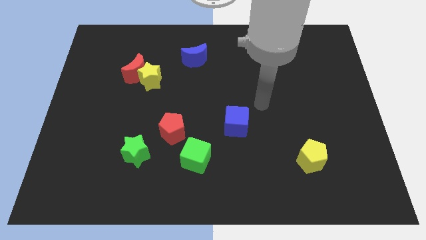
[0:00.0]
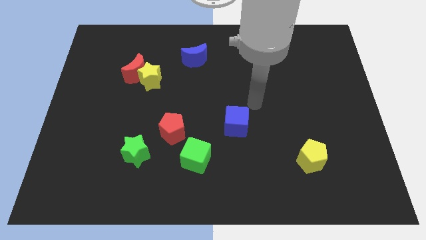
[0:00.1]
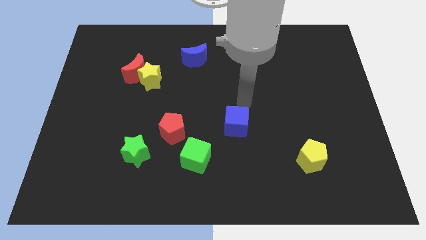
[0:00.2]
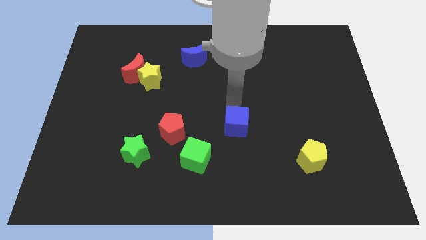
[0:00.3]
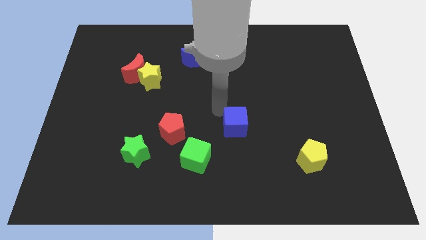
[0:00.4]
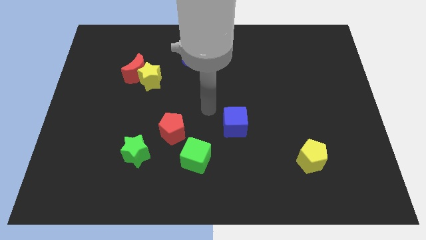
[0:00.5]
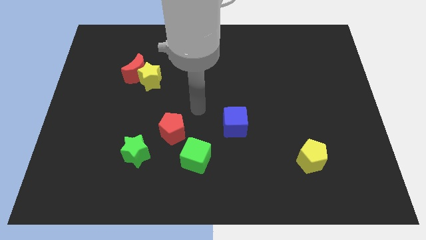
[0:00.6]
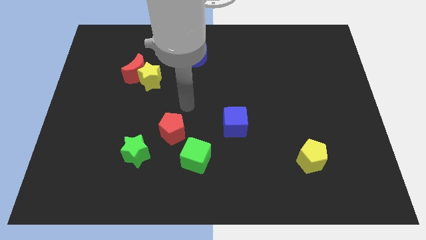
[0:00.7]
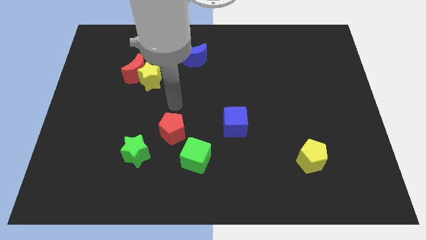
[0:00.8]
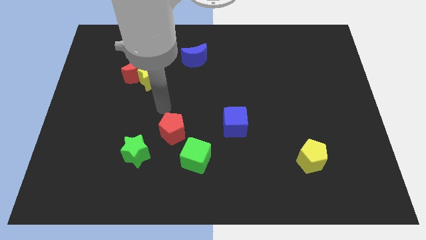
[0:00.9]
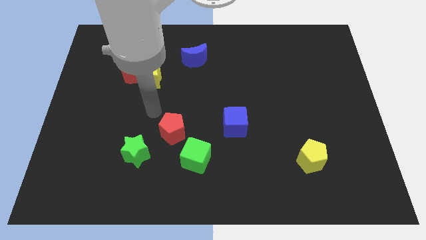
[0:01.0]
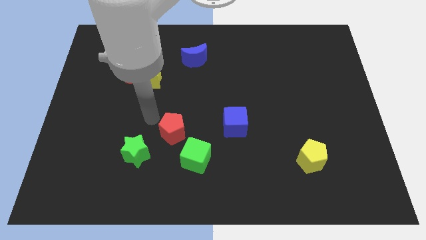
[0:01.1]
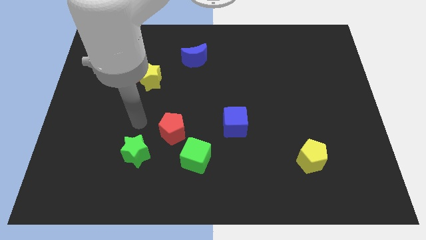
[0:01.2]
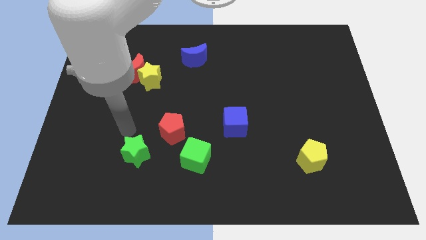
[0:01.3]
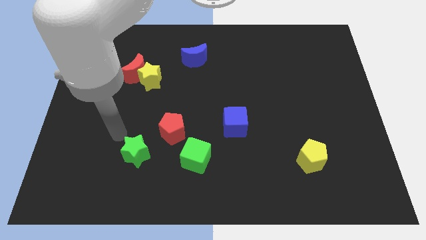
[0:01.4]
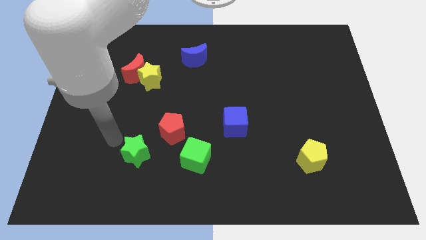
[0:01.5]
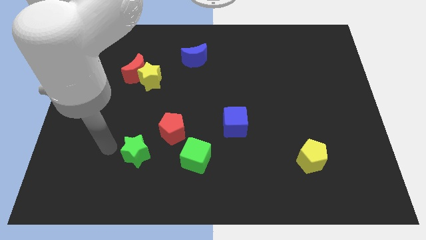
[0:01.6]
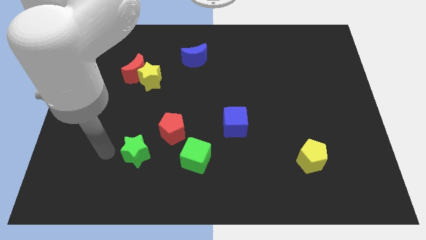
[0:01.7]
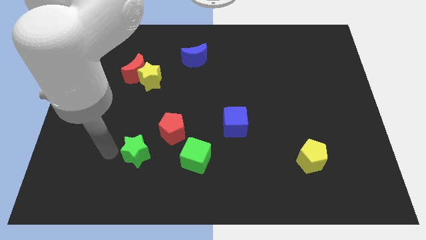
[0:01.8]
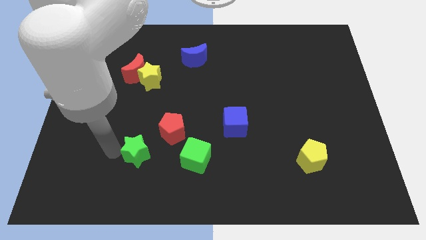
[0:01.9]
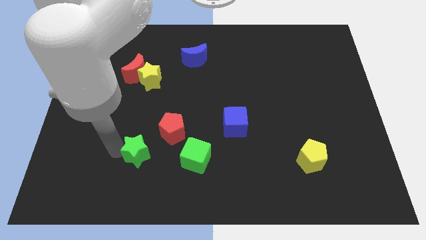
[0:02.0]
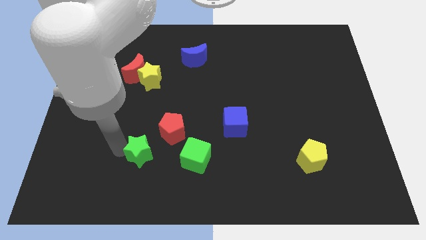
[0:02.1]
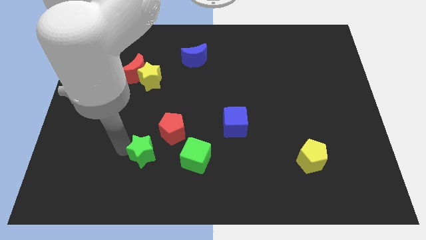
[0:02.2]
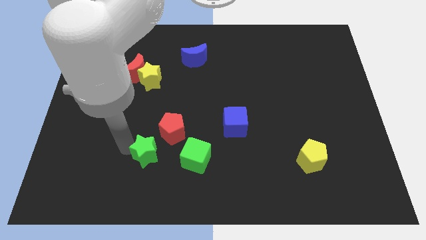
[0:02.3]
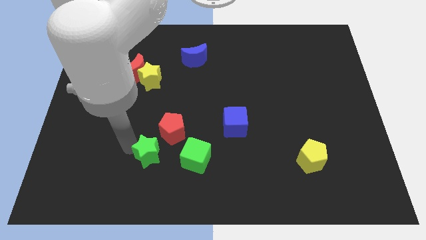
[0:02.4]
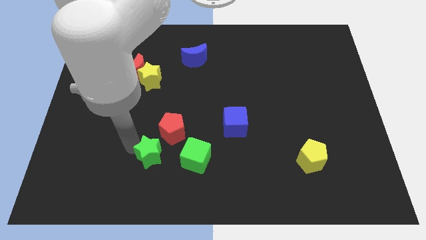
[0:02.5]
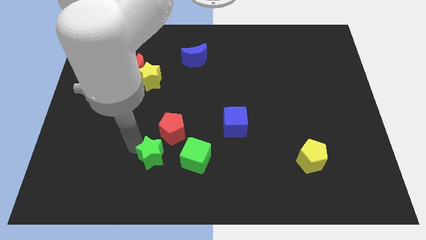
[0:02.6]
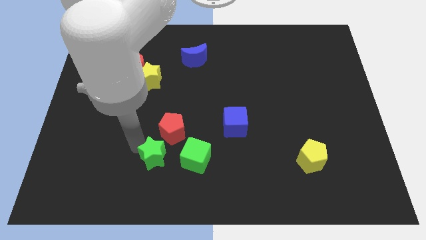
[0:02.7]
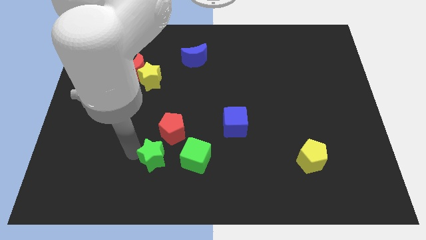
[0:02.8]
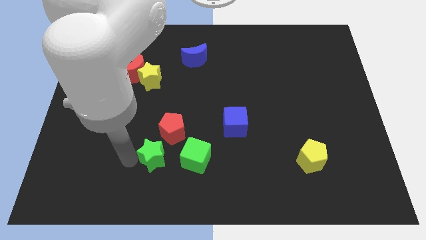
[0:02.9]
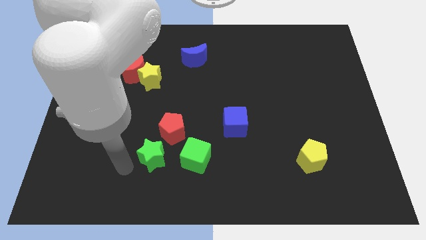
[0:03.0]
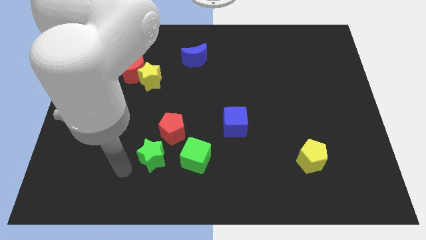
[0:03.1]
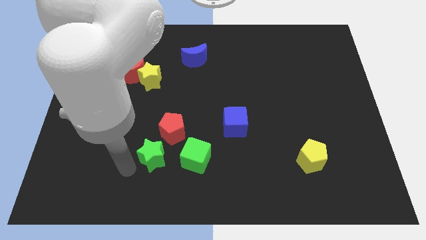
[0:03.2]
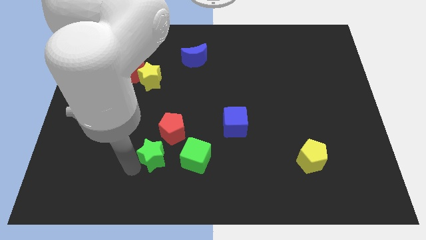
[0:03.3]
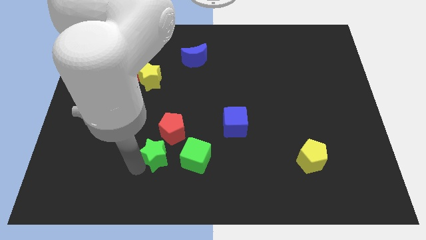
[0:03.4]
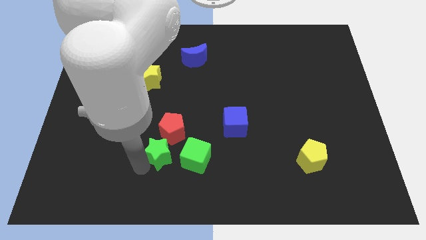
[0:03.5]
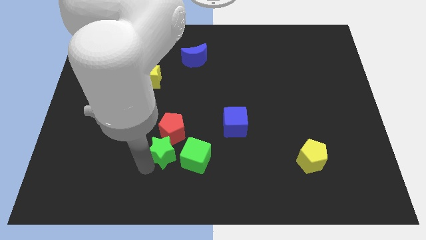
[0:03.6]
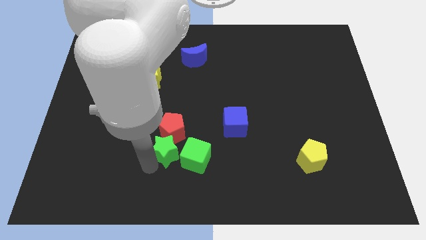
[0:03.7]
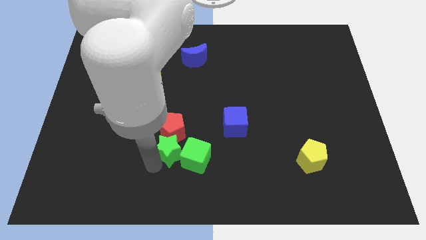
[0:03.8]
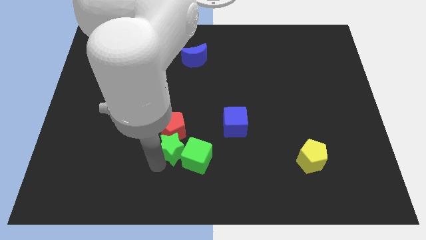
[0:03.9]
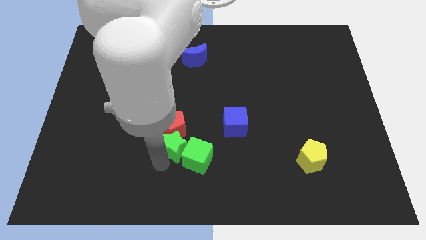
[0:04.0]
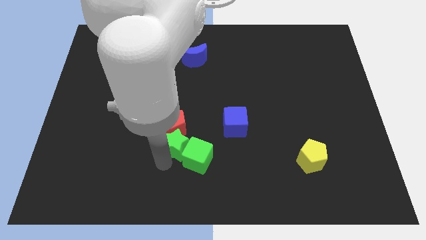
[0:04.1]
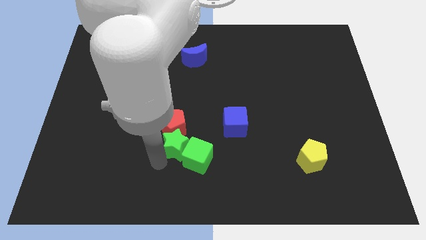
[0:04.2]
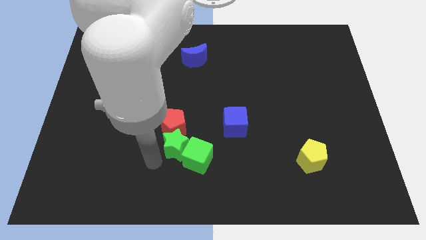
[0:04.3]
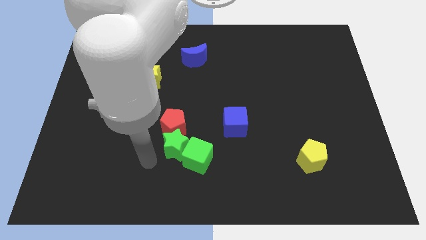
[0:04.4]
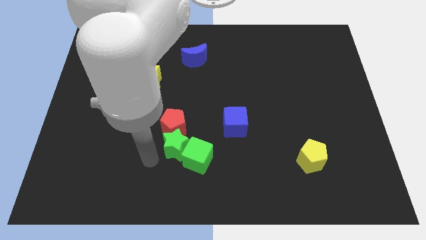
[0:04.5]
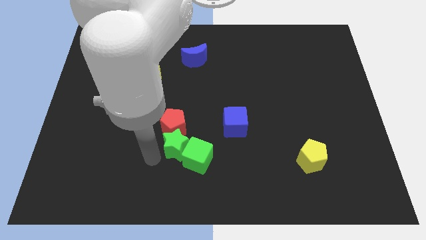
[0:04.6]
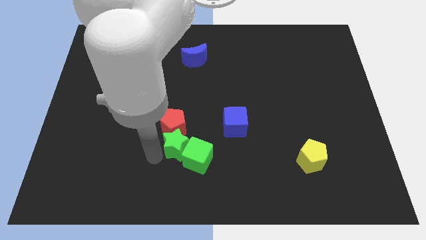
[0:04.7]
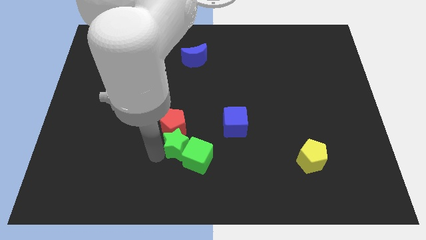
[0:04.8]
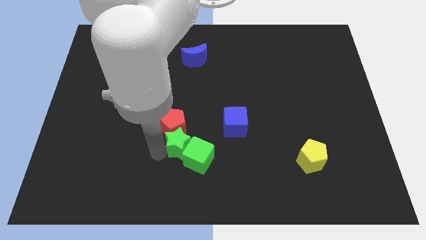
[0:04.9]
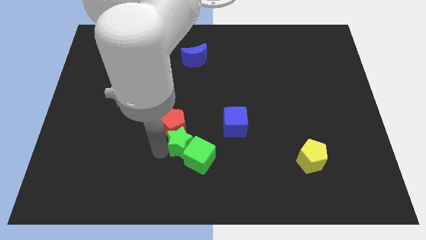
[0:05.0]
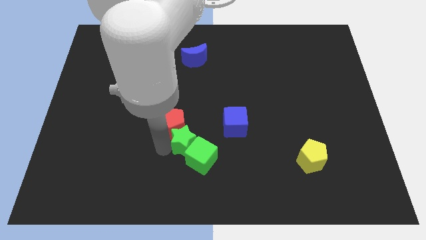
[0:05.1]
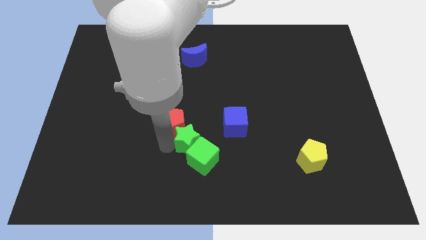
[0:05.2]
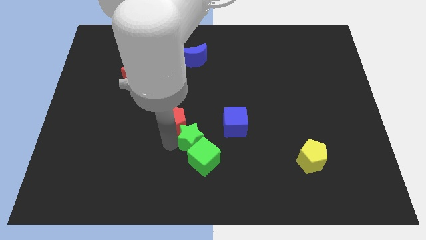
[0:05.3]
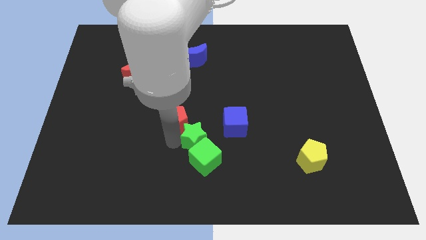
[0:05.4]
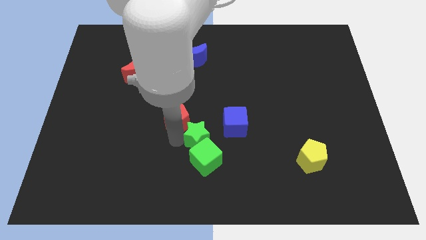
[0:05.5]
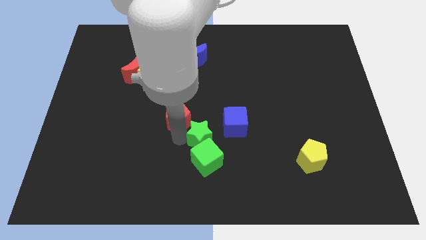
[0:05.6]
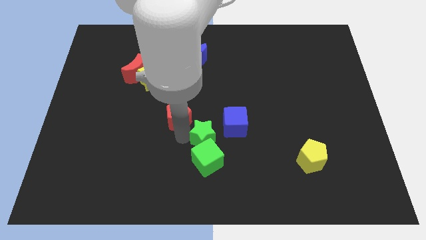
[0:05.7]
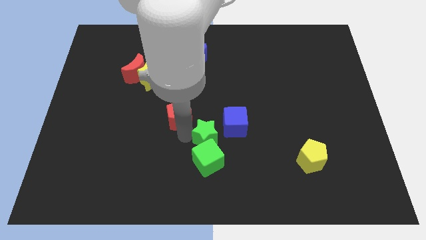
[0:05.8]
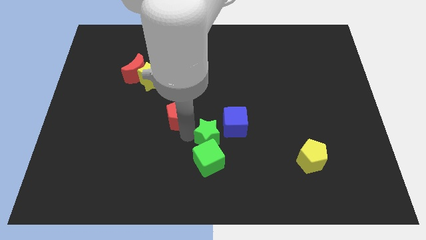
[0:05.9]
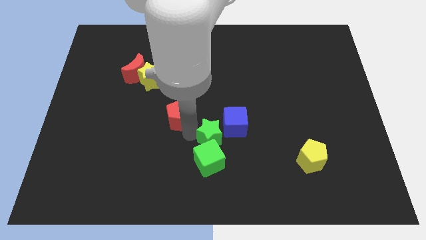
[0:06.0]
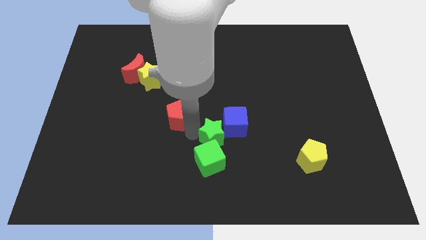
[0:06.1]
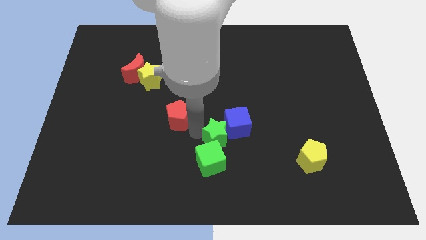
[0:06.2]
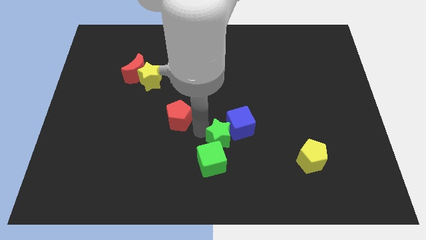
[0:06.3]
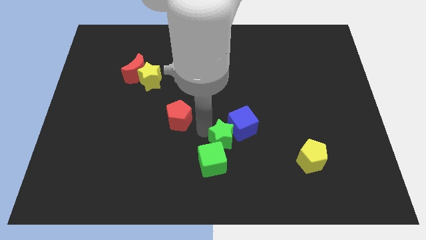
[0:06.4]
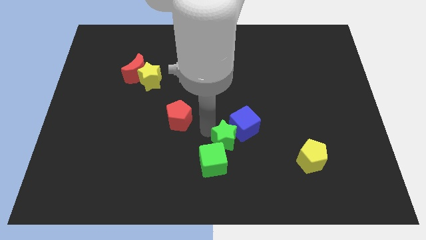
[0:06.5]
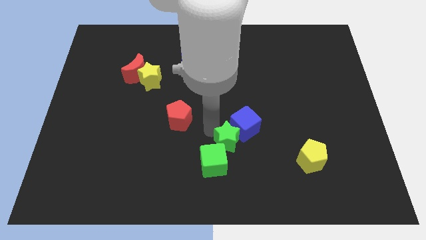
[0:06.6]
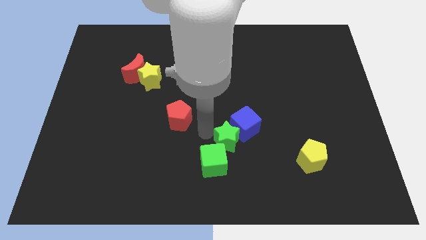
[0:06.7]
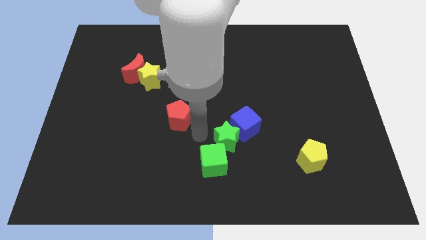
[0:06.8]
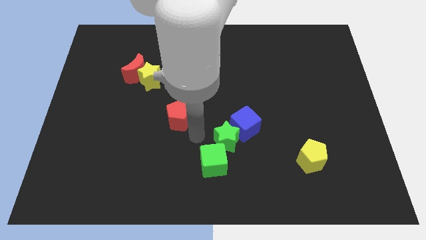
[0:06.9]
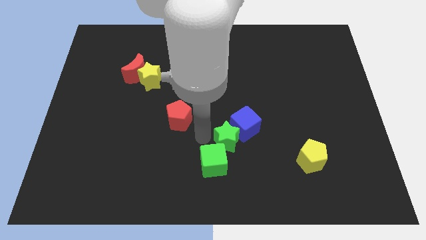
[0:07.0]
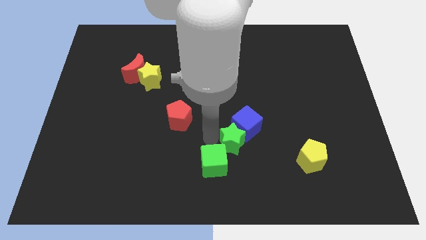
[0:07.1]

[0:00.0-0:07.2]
slide the green star to the right

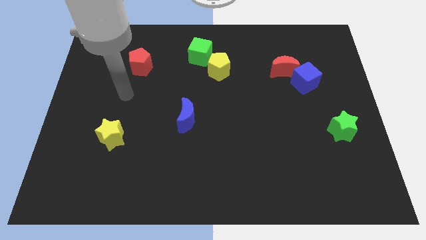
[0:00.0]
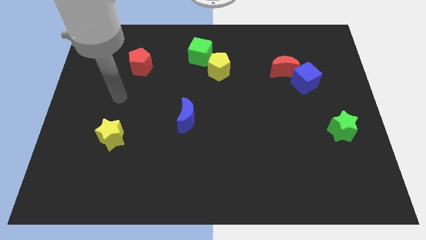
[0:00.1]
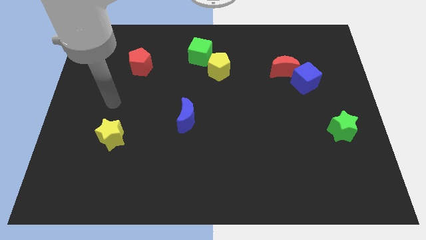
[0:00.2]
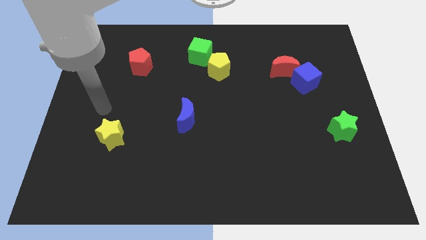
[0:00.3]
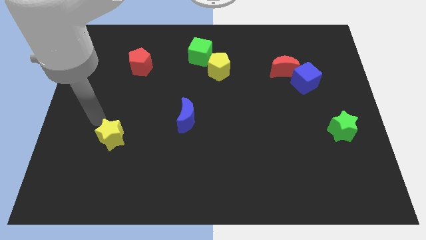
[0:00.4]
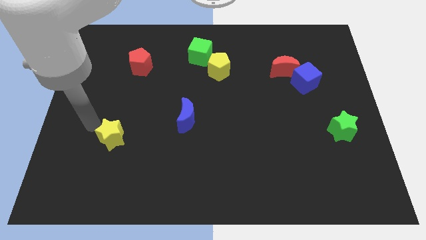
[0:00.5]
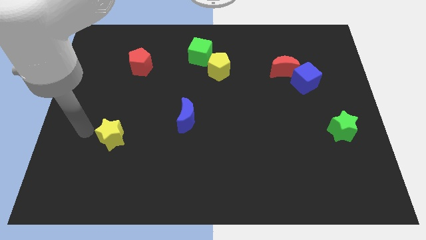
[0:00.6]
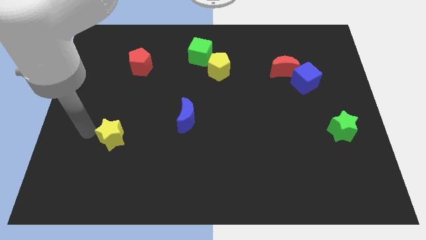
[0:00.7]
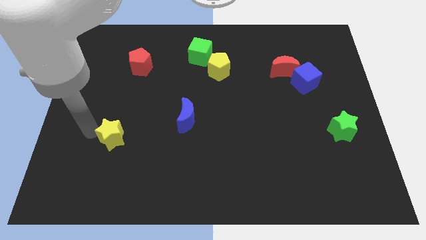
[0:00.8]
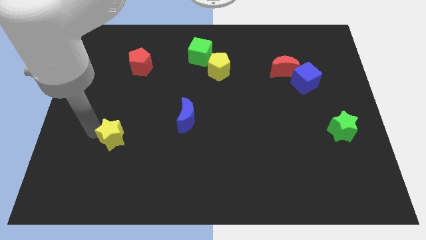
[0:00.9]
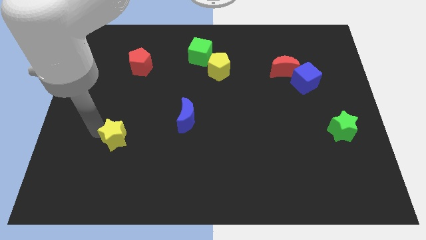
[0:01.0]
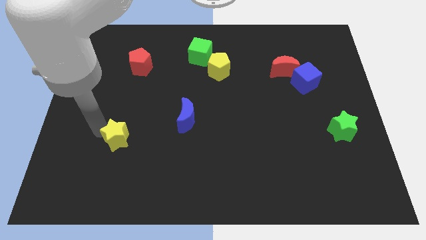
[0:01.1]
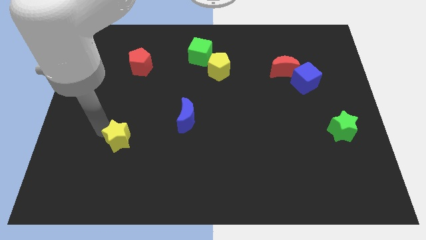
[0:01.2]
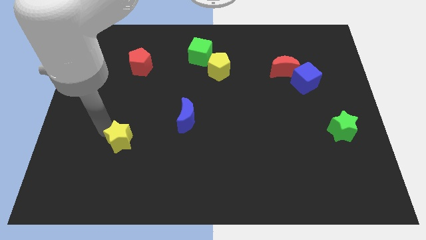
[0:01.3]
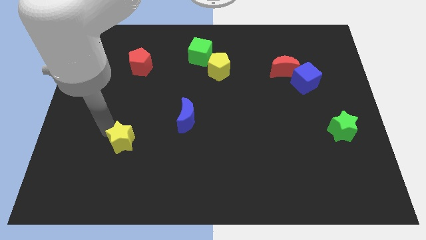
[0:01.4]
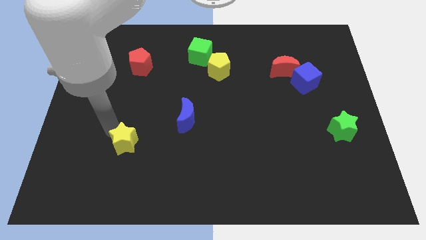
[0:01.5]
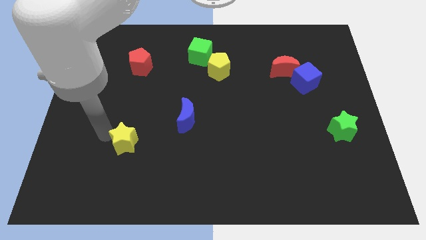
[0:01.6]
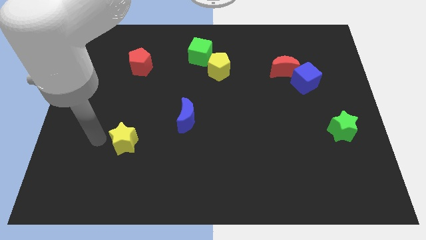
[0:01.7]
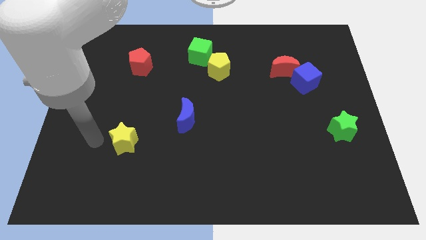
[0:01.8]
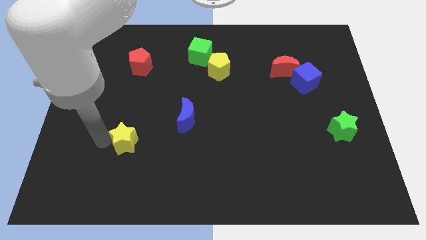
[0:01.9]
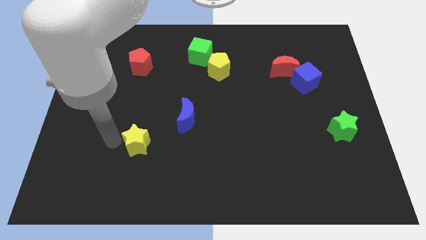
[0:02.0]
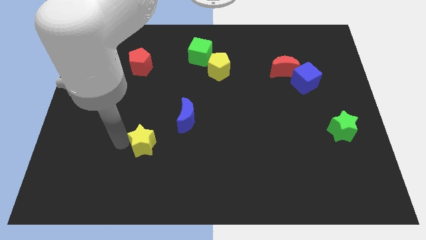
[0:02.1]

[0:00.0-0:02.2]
slightly push the yellow star right
